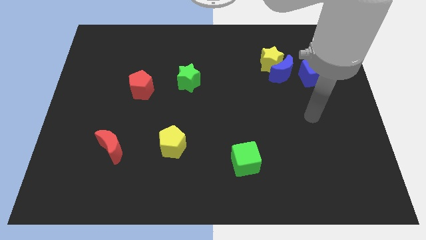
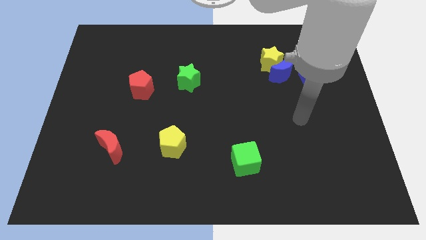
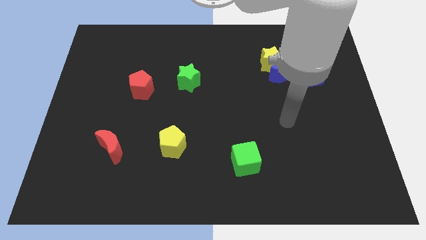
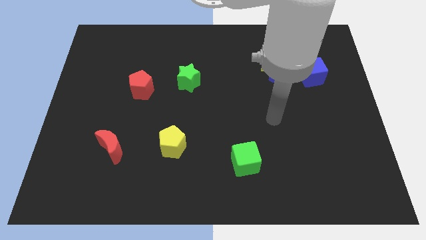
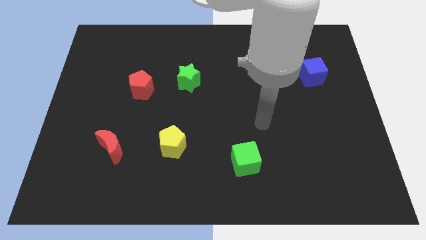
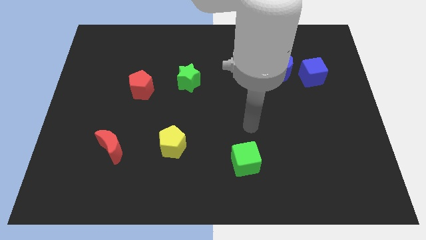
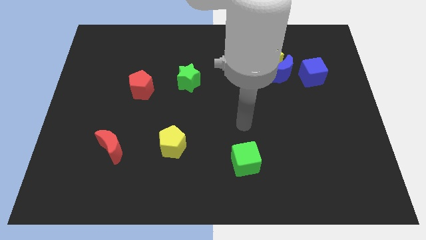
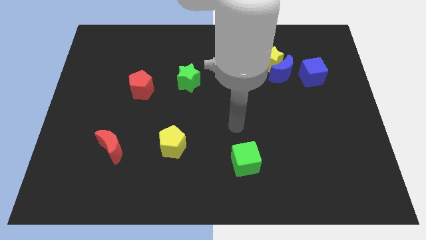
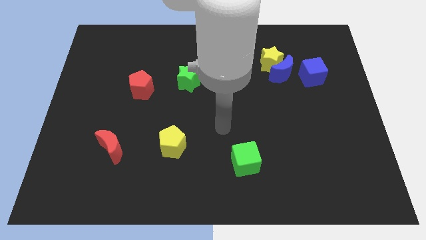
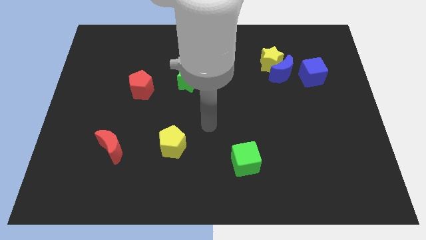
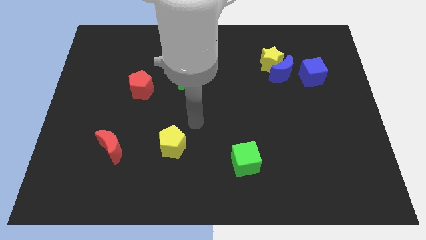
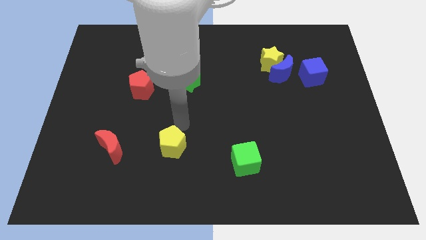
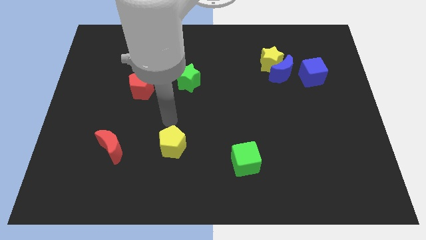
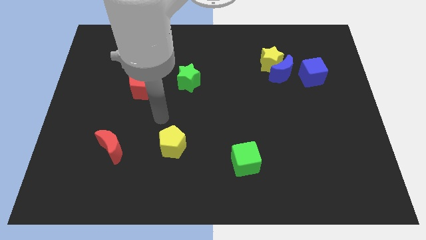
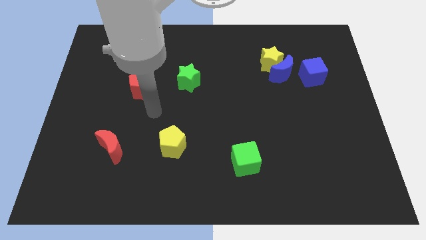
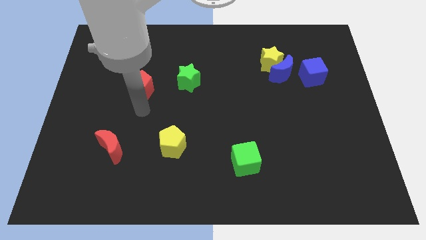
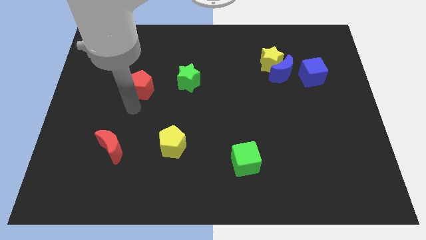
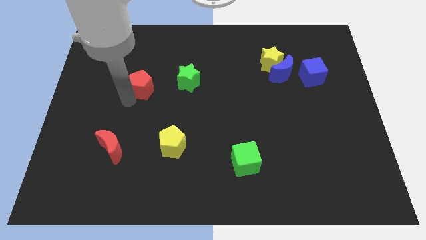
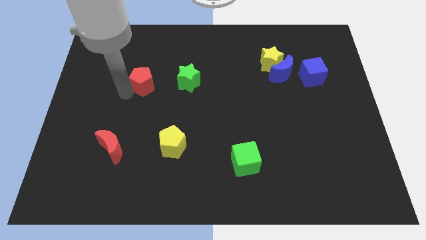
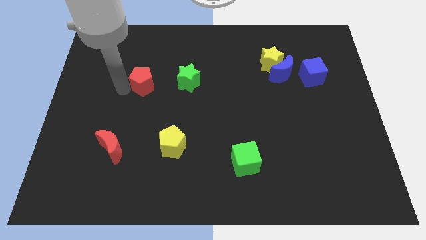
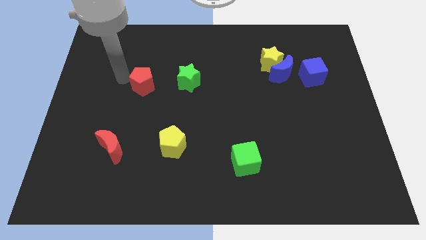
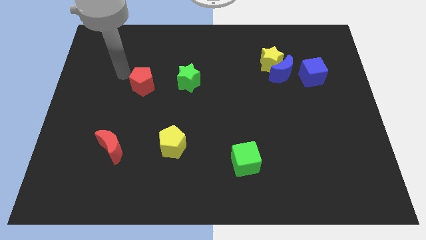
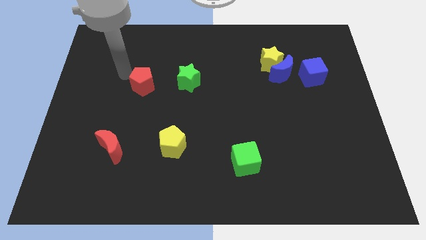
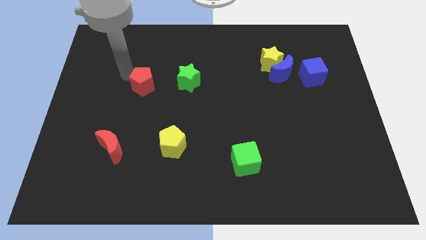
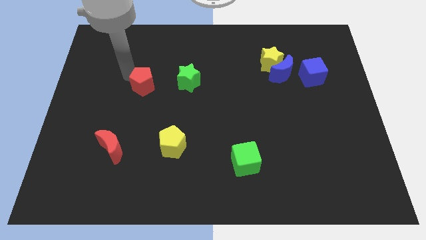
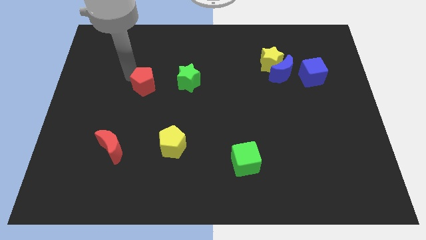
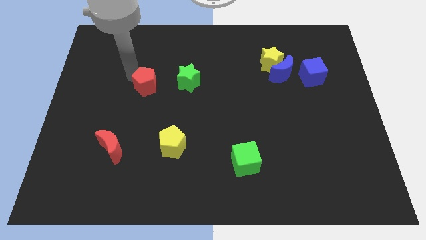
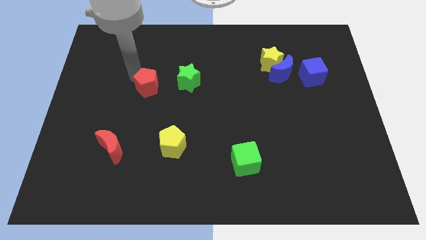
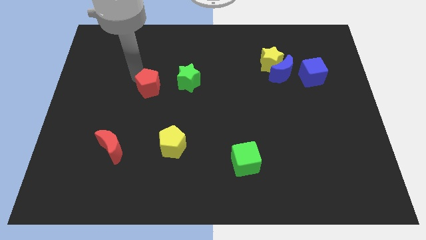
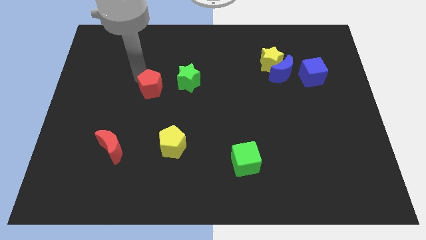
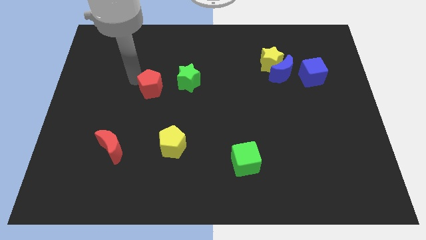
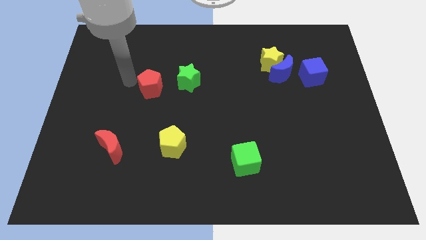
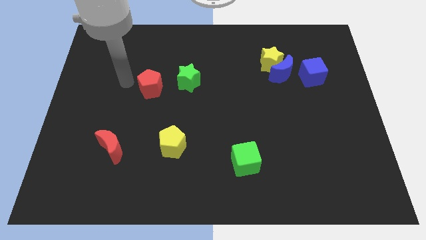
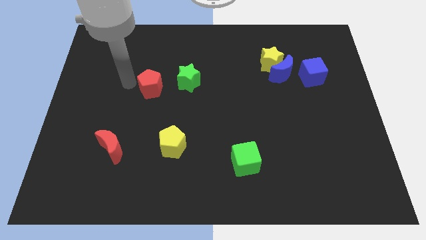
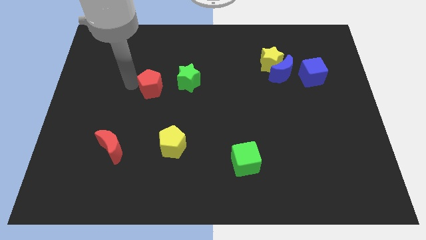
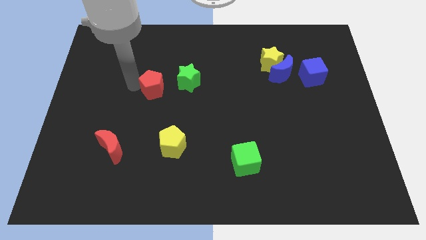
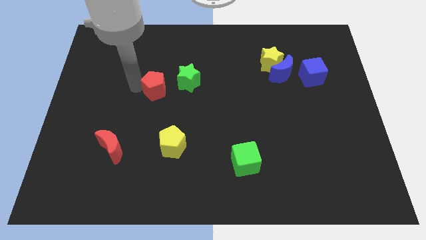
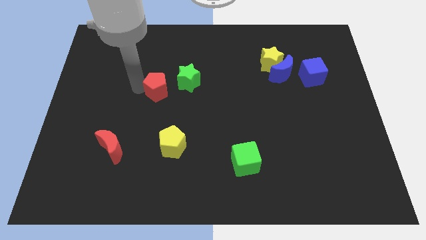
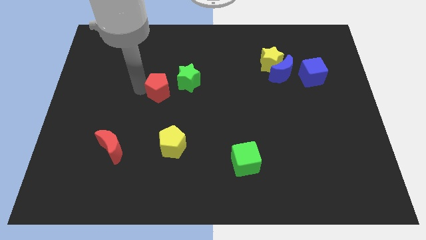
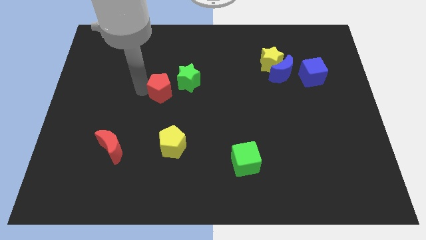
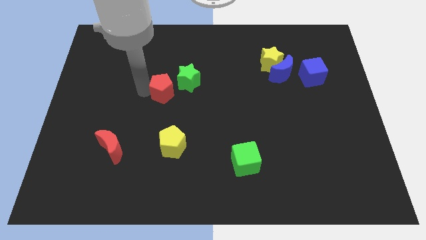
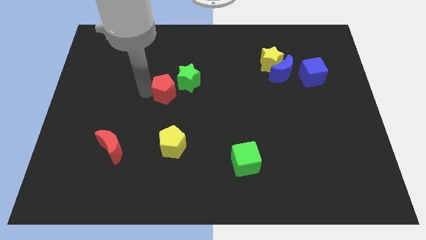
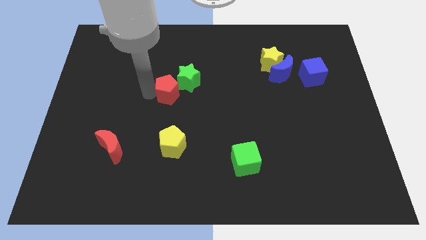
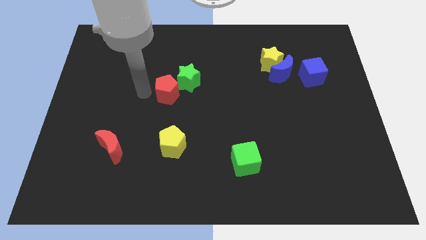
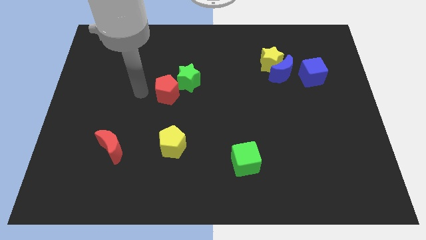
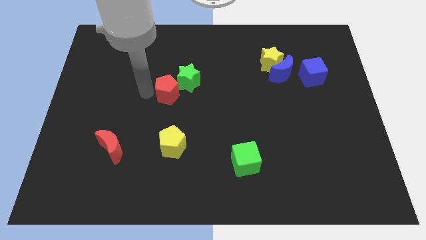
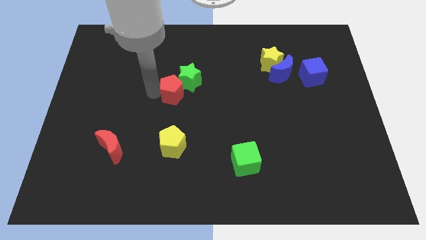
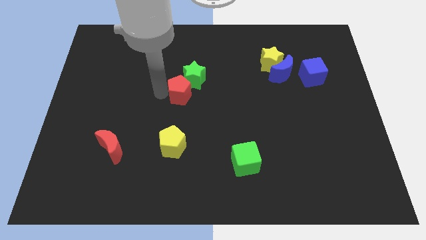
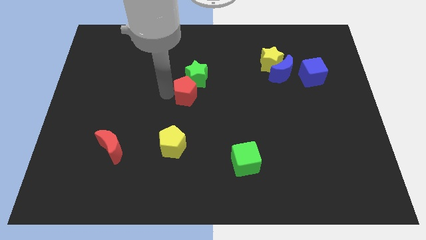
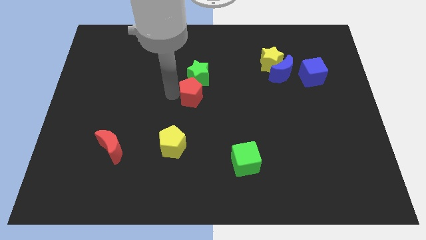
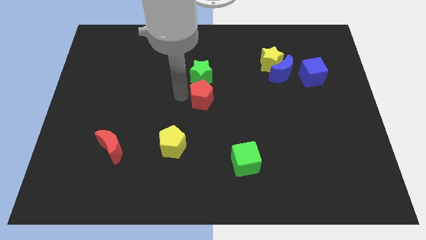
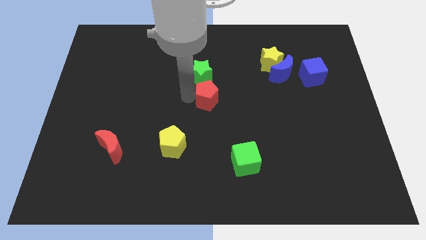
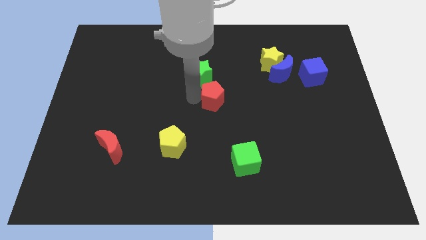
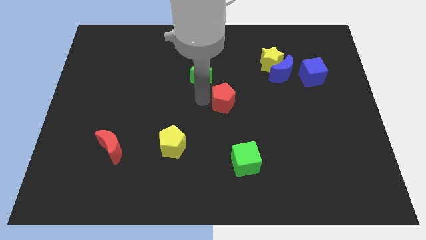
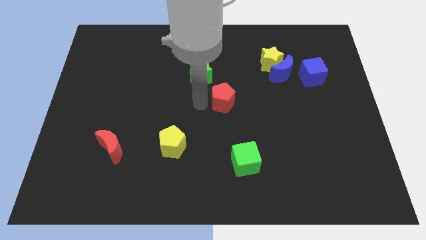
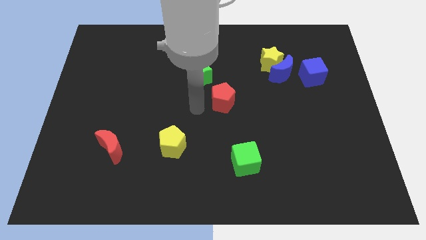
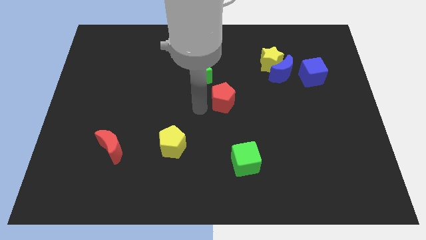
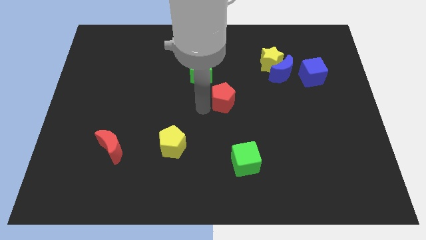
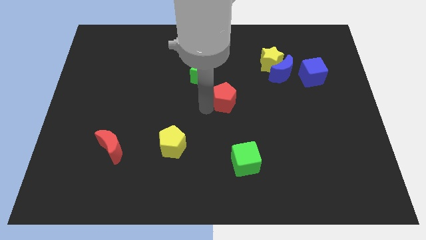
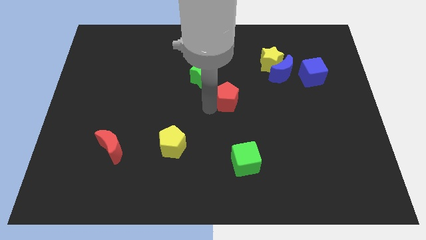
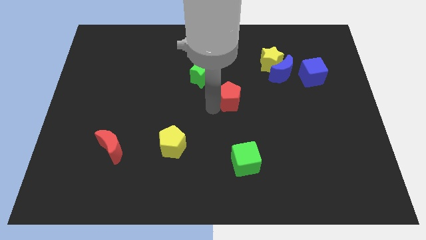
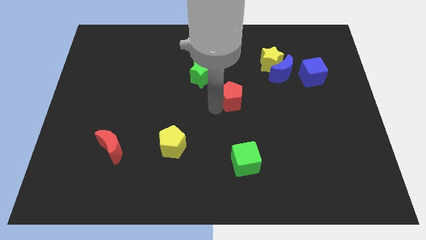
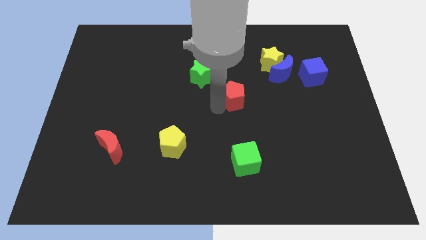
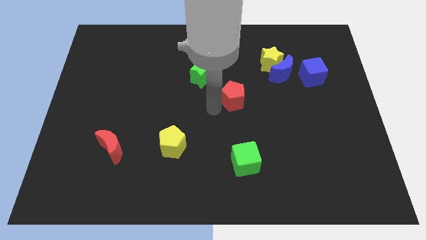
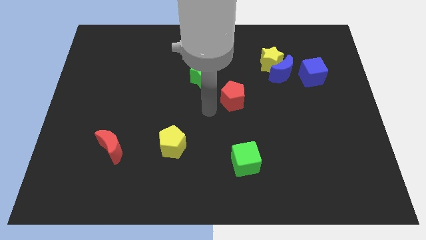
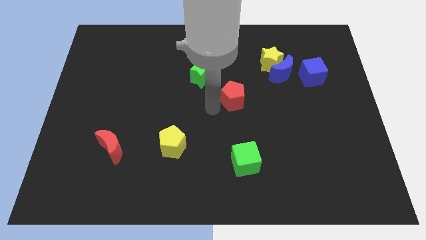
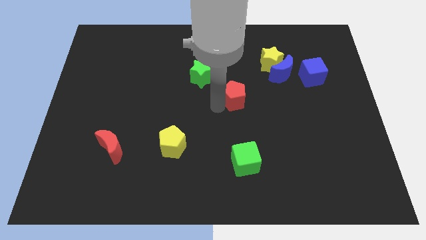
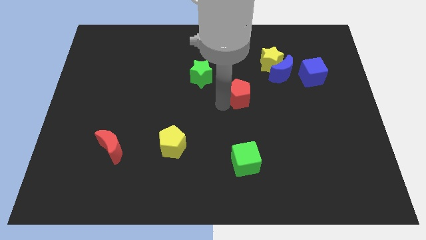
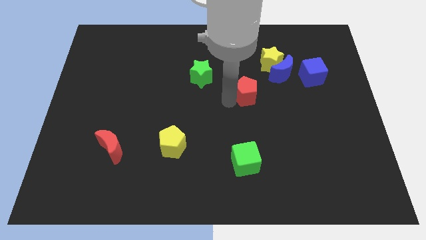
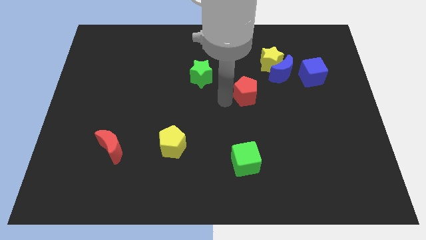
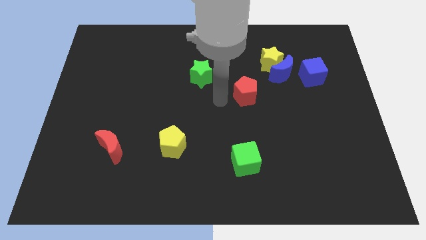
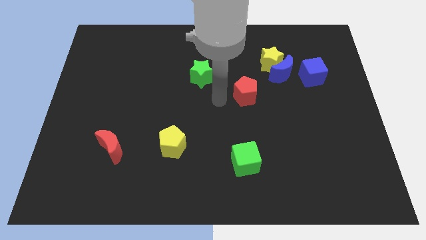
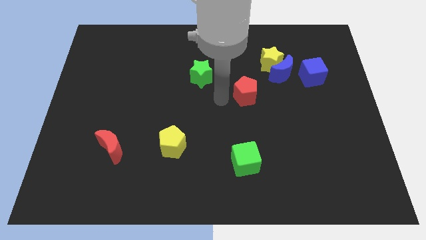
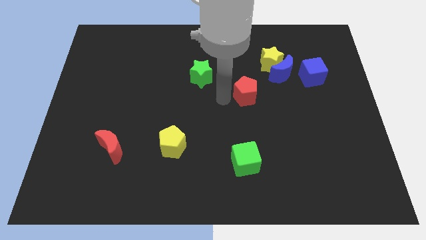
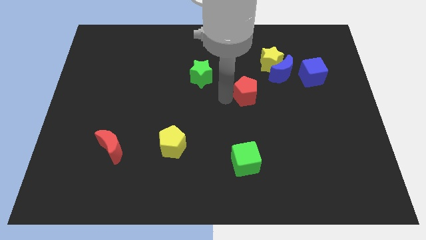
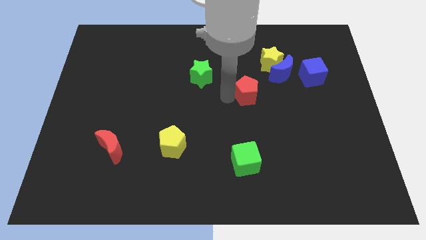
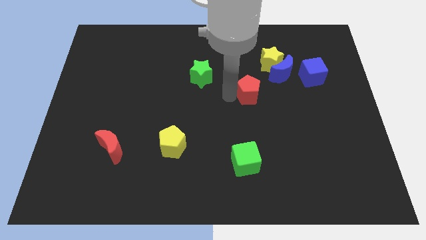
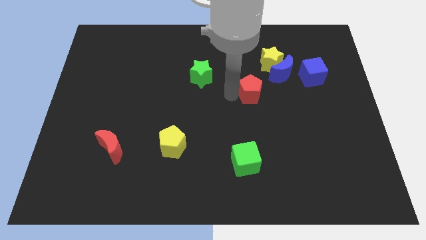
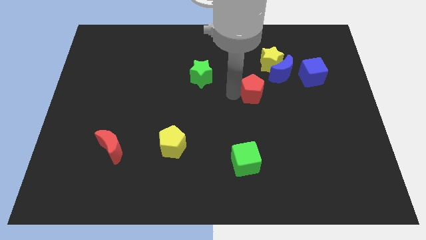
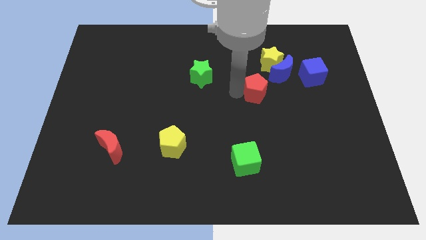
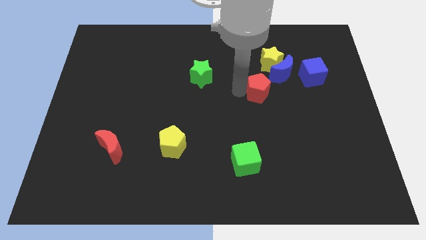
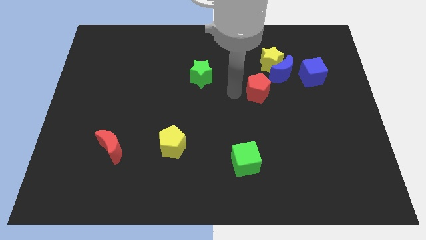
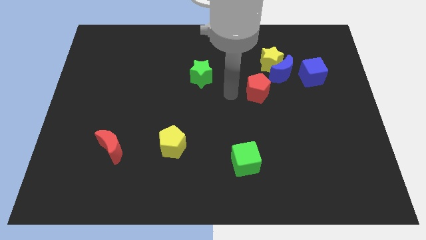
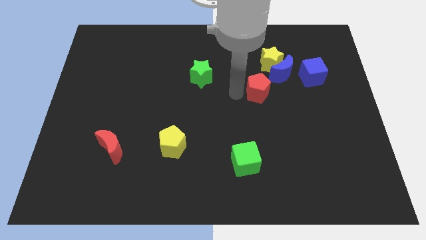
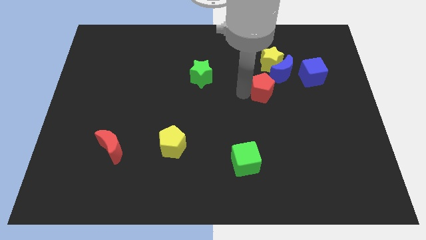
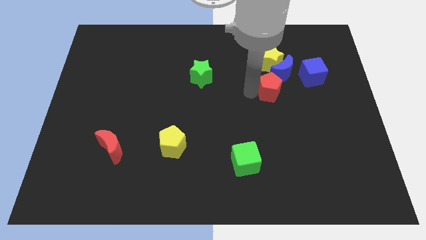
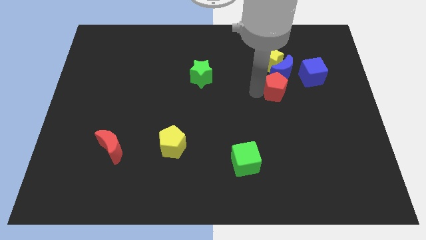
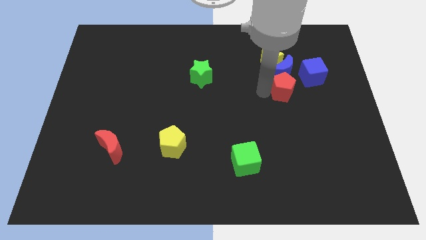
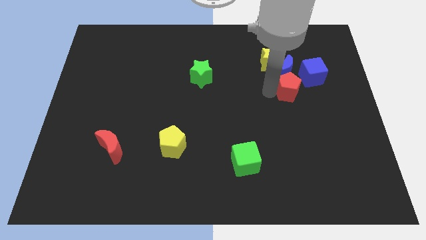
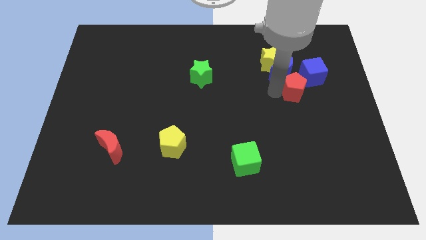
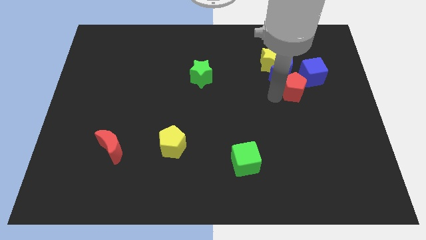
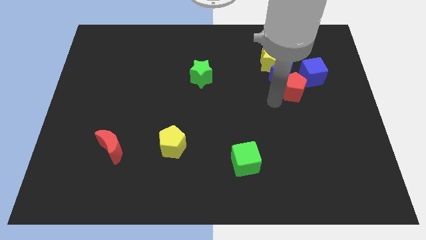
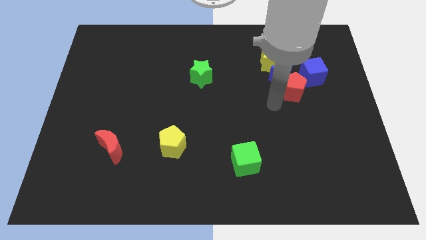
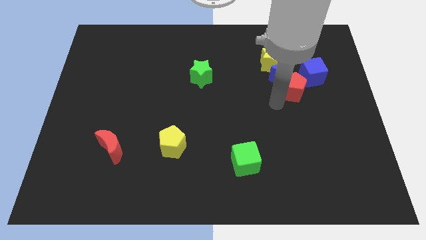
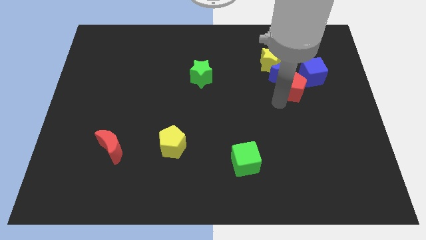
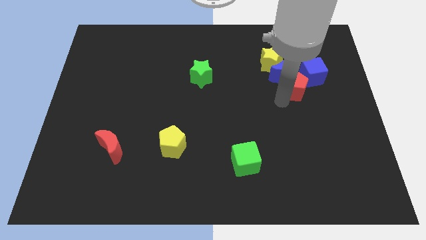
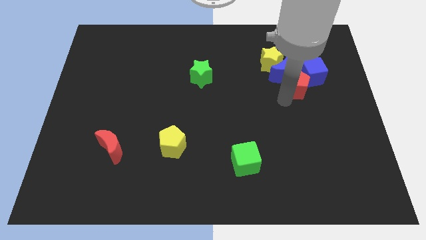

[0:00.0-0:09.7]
push the red pentagon to the blue cube
